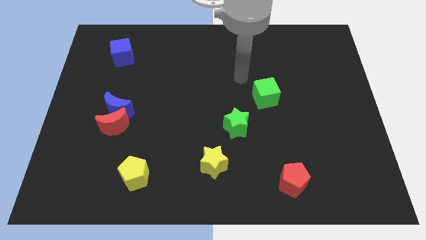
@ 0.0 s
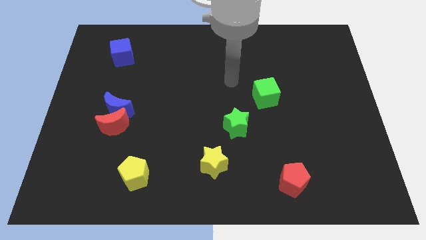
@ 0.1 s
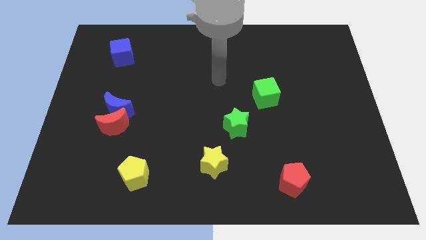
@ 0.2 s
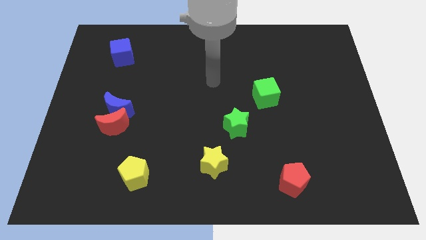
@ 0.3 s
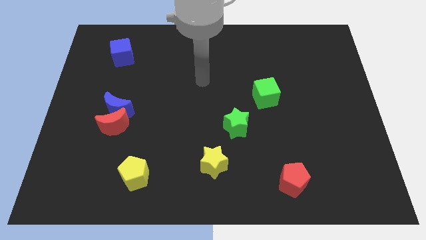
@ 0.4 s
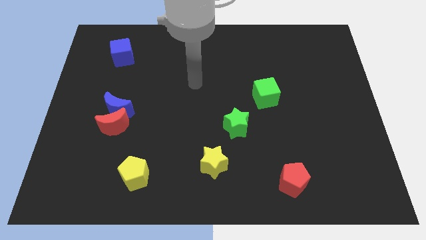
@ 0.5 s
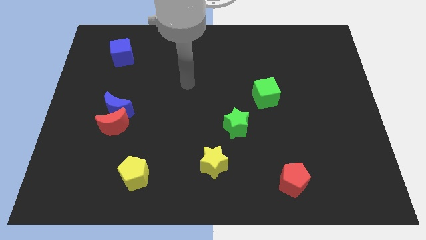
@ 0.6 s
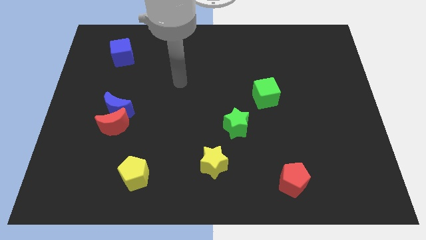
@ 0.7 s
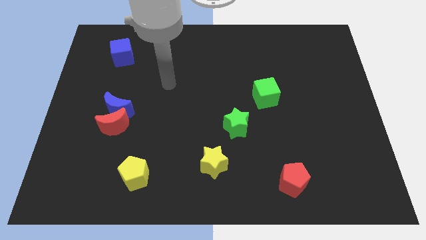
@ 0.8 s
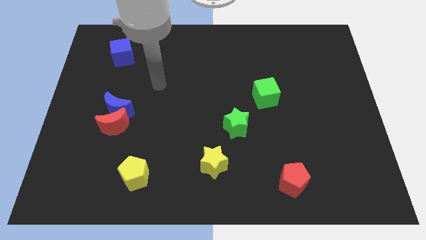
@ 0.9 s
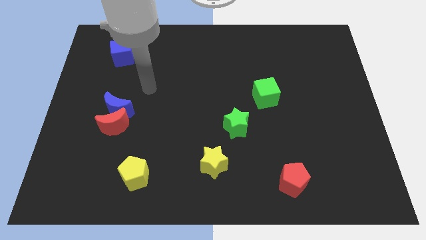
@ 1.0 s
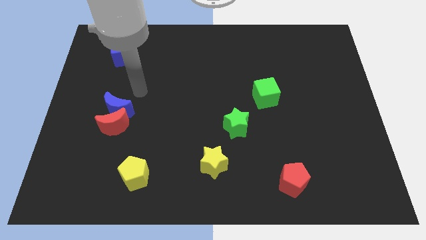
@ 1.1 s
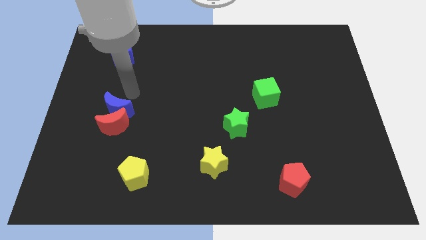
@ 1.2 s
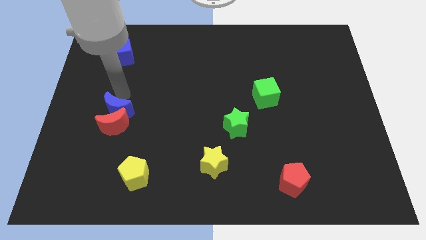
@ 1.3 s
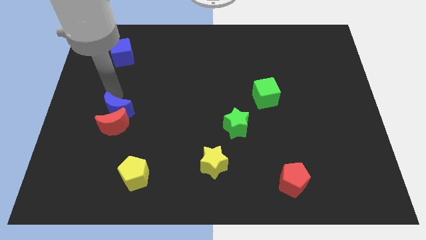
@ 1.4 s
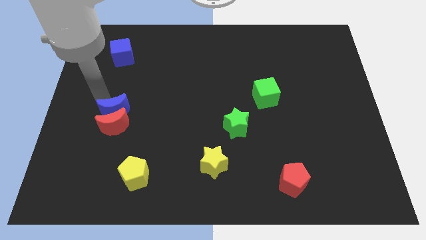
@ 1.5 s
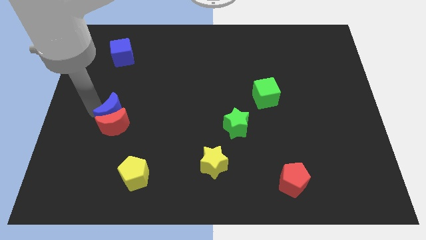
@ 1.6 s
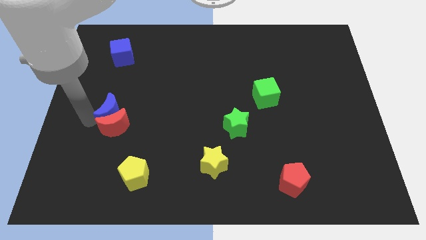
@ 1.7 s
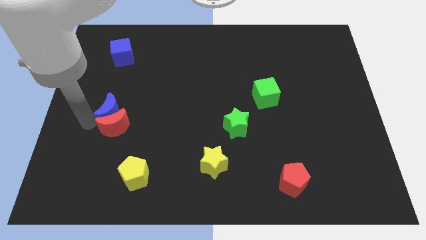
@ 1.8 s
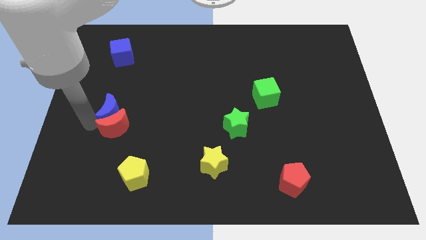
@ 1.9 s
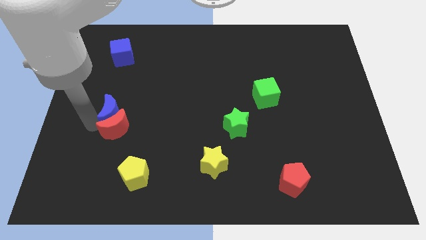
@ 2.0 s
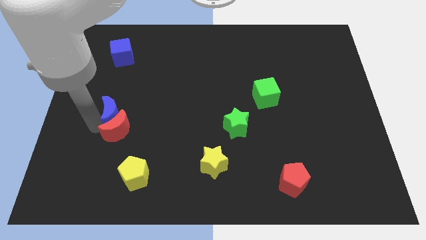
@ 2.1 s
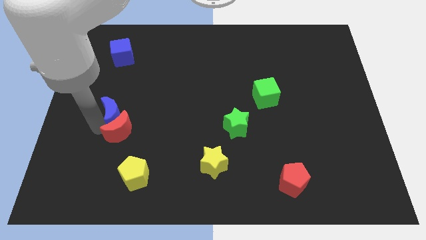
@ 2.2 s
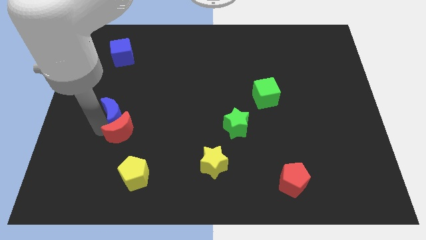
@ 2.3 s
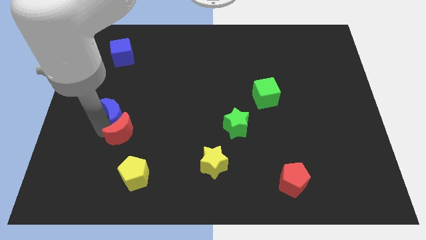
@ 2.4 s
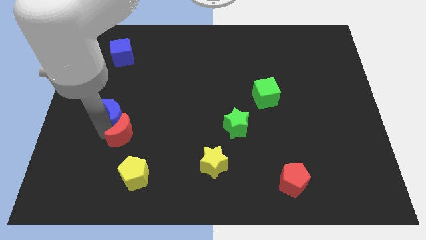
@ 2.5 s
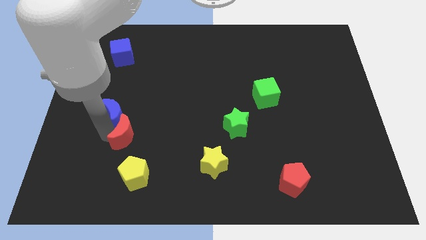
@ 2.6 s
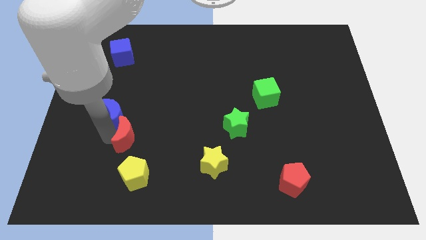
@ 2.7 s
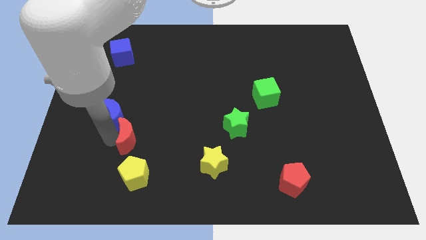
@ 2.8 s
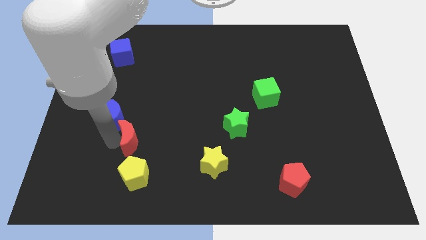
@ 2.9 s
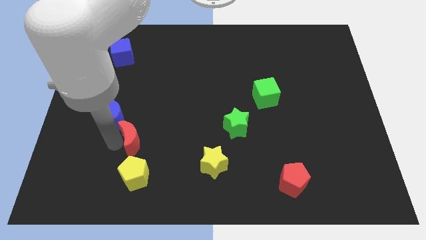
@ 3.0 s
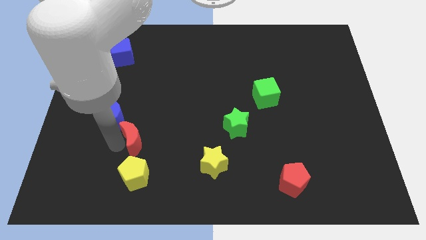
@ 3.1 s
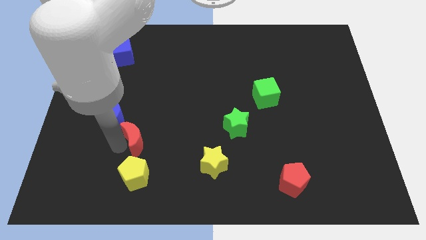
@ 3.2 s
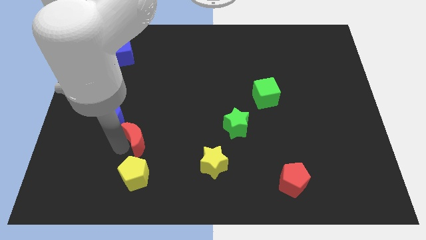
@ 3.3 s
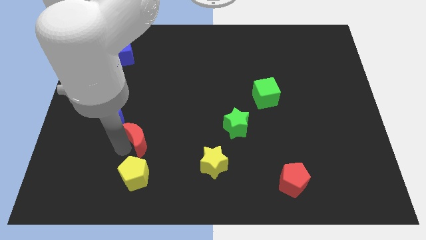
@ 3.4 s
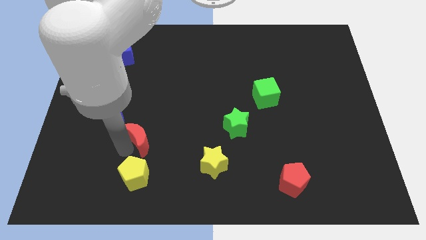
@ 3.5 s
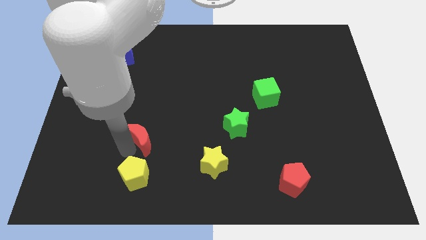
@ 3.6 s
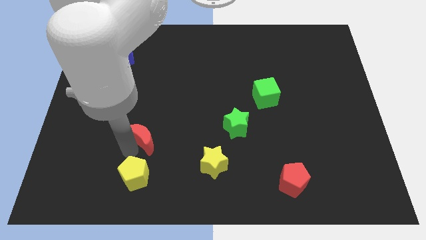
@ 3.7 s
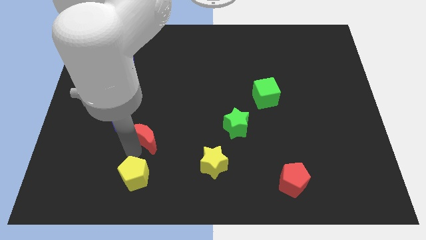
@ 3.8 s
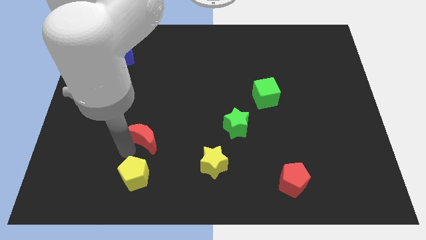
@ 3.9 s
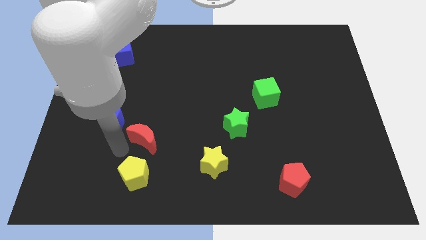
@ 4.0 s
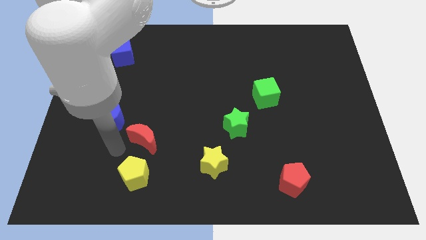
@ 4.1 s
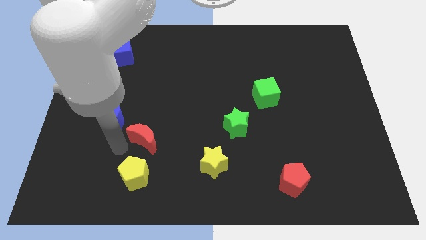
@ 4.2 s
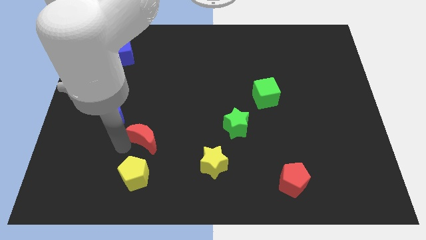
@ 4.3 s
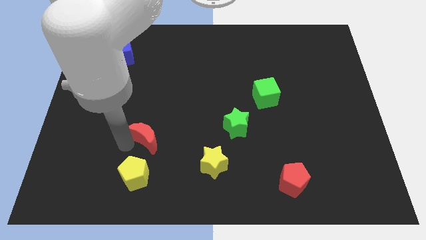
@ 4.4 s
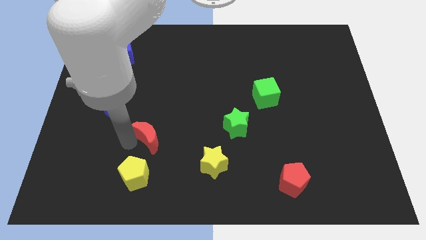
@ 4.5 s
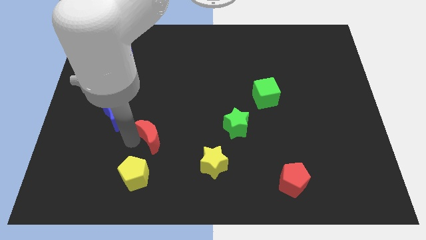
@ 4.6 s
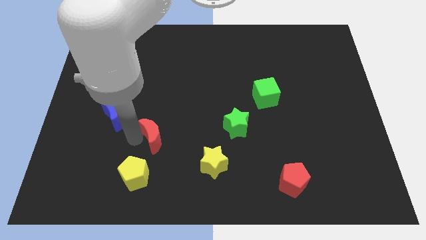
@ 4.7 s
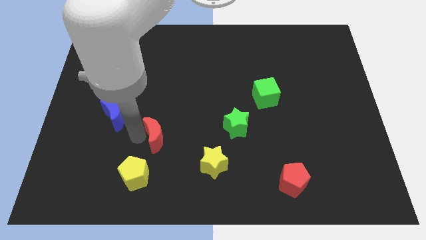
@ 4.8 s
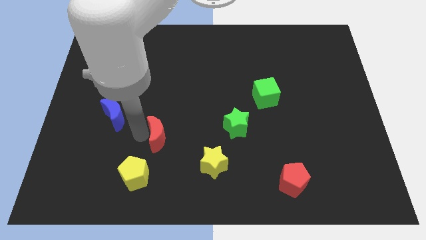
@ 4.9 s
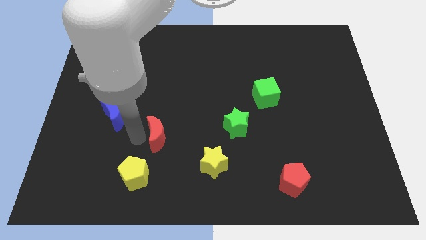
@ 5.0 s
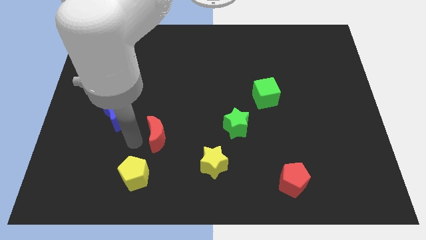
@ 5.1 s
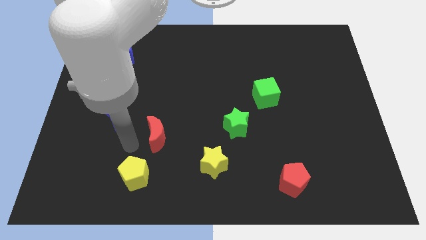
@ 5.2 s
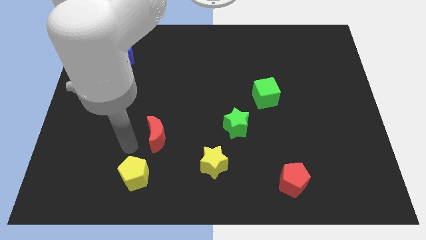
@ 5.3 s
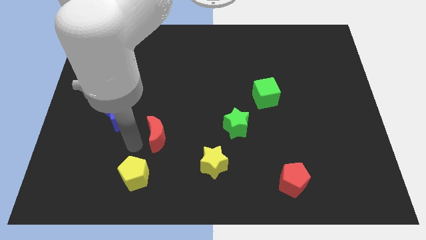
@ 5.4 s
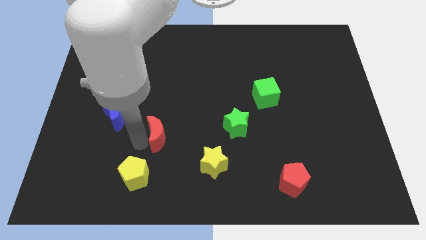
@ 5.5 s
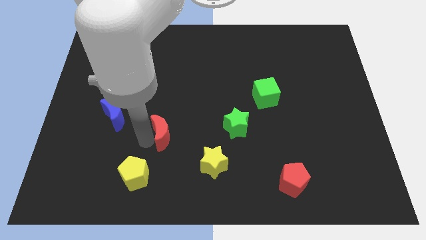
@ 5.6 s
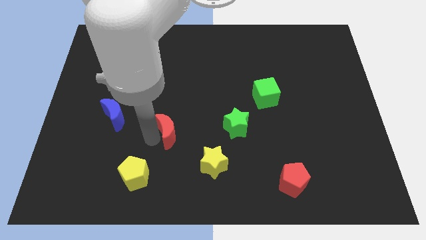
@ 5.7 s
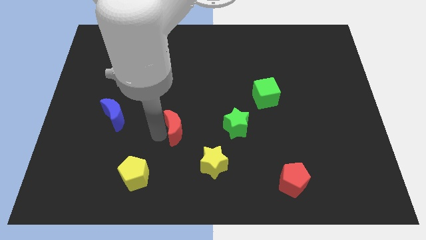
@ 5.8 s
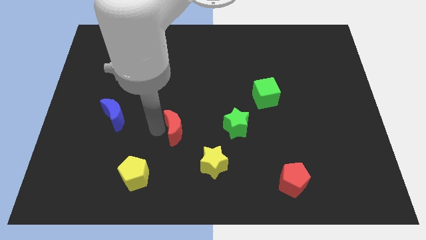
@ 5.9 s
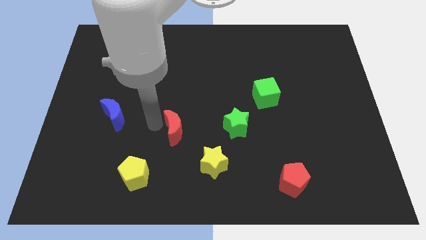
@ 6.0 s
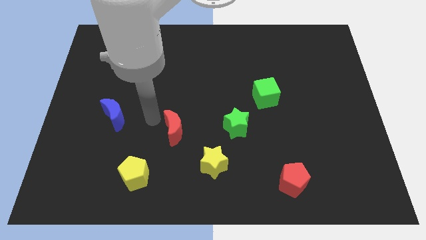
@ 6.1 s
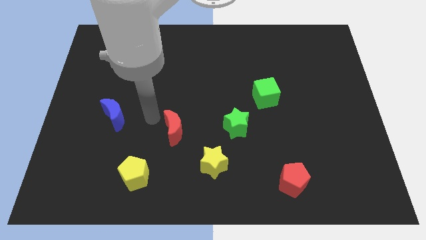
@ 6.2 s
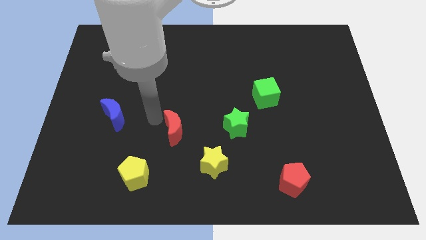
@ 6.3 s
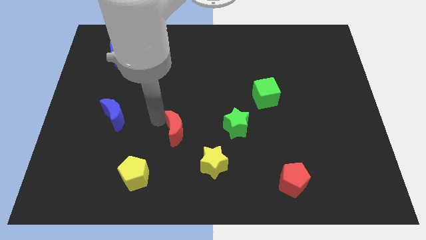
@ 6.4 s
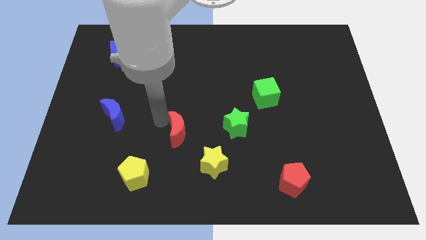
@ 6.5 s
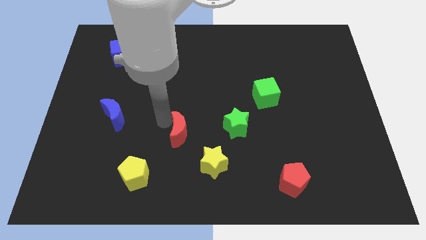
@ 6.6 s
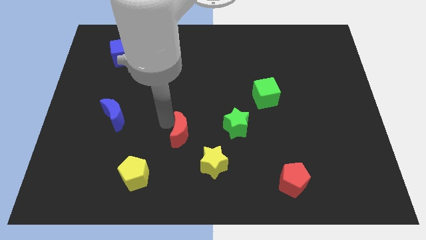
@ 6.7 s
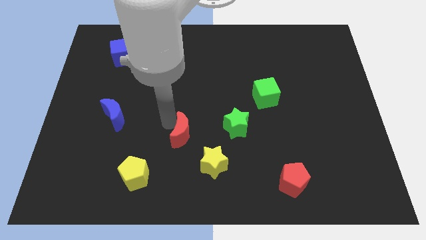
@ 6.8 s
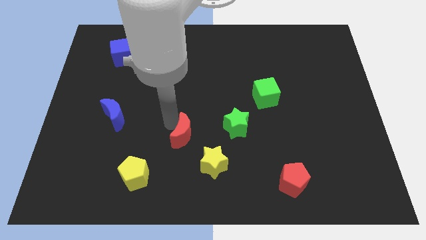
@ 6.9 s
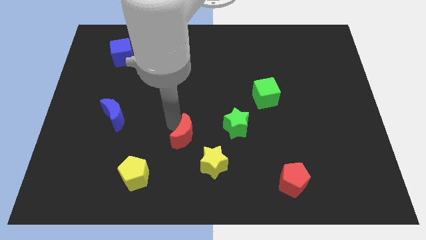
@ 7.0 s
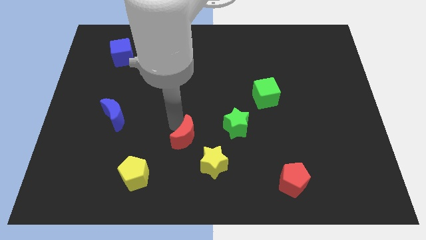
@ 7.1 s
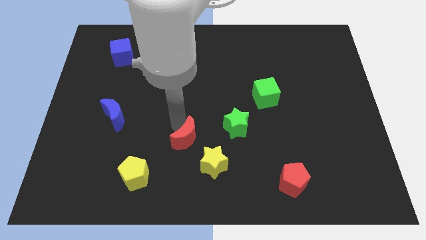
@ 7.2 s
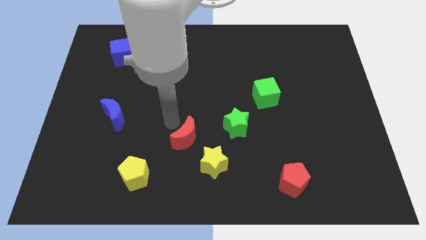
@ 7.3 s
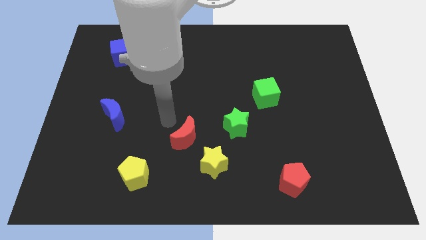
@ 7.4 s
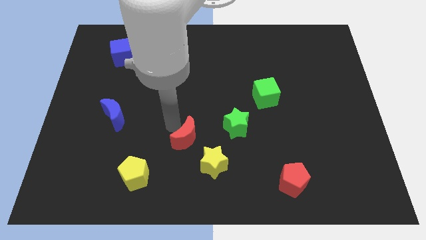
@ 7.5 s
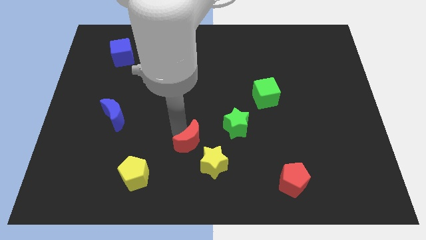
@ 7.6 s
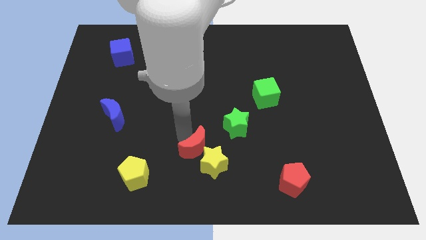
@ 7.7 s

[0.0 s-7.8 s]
push the red moon towards the yellow star
